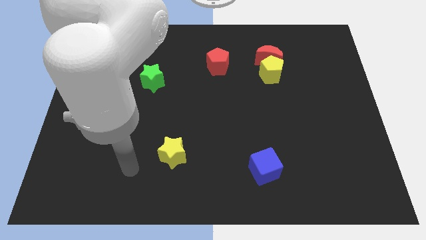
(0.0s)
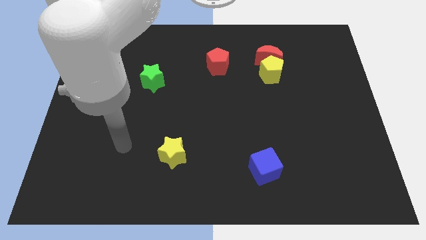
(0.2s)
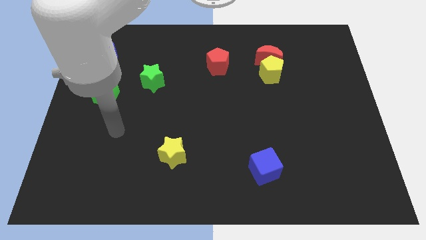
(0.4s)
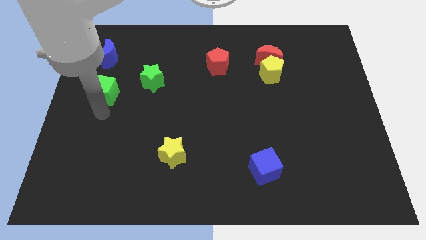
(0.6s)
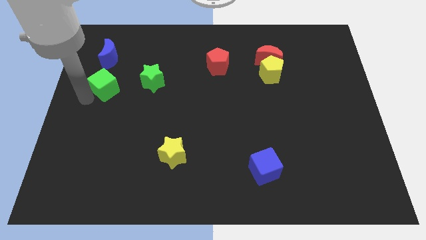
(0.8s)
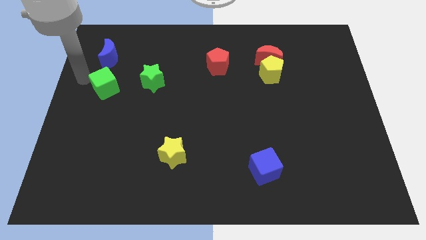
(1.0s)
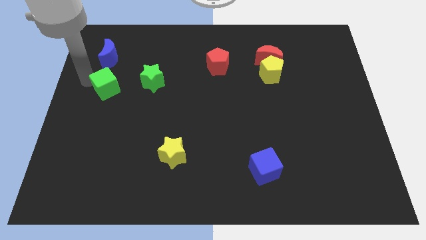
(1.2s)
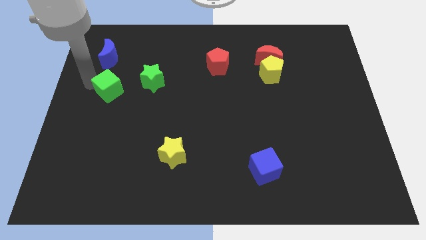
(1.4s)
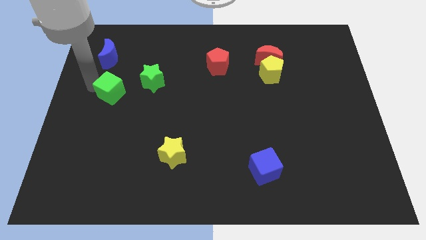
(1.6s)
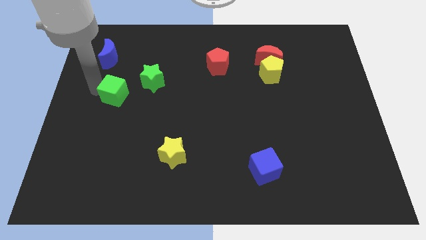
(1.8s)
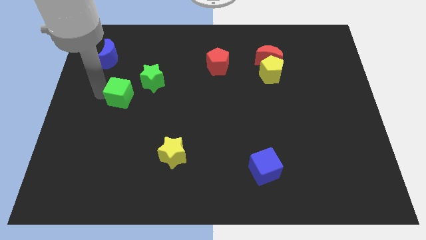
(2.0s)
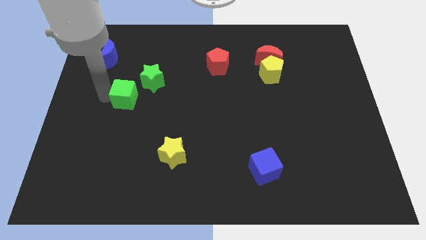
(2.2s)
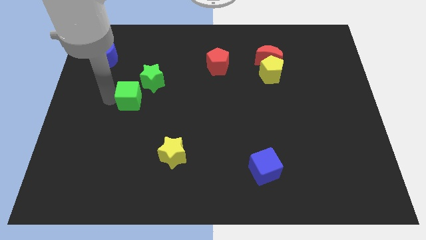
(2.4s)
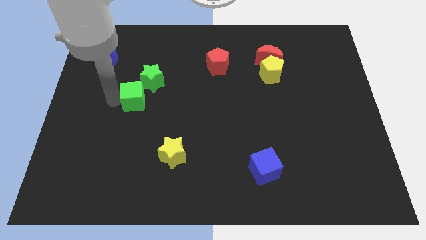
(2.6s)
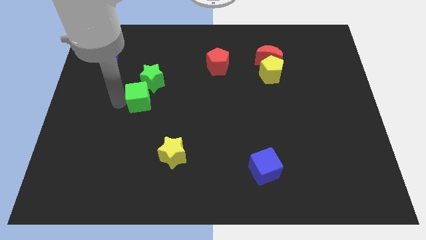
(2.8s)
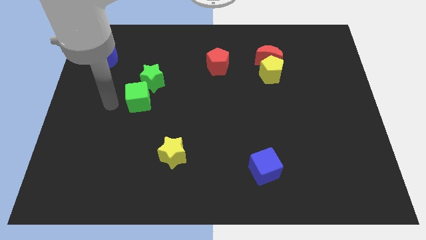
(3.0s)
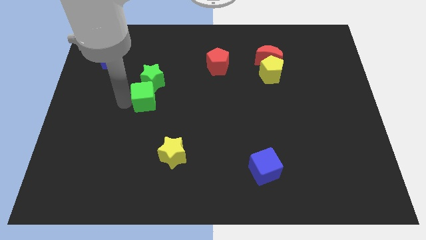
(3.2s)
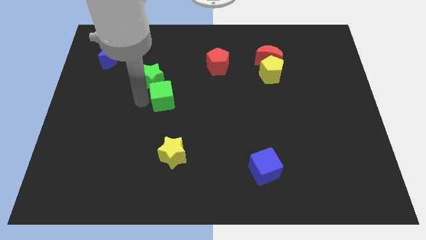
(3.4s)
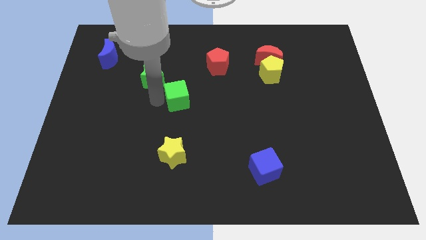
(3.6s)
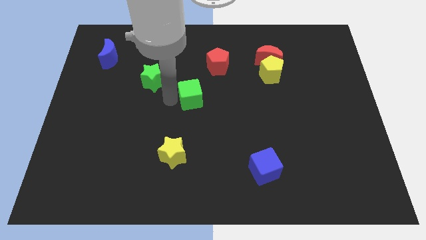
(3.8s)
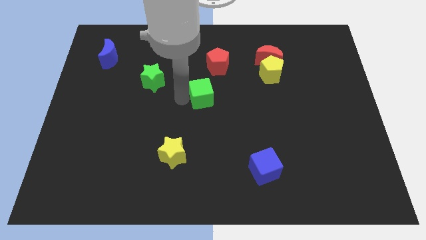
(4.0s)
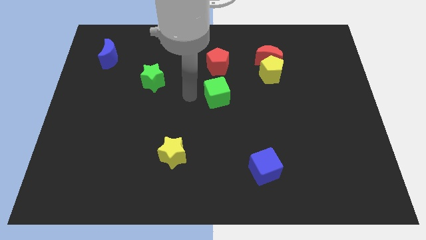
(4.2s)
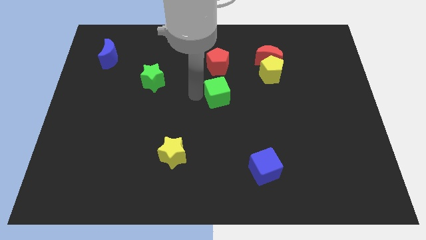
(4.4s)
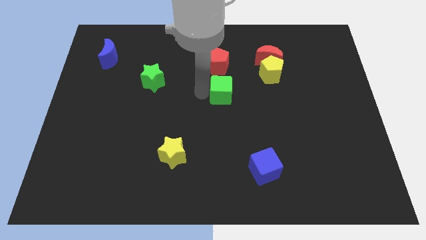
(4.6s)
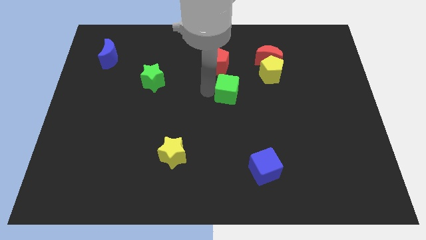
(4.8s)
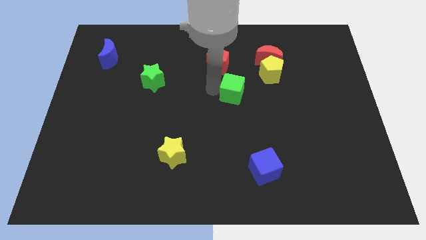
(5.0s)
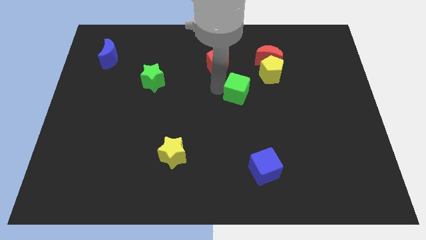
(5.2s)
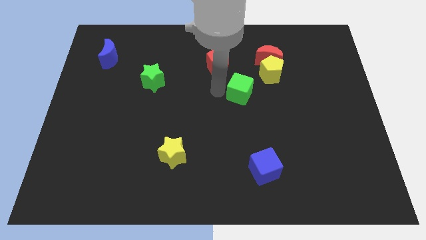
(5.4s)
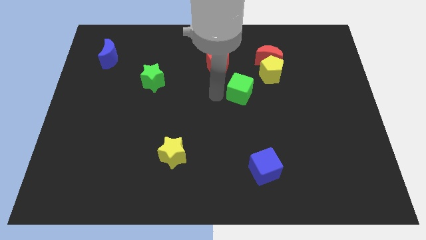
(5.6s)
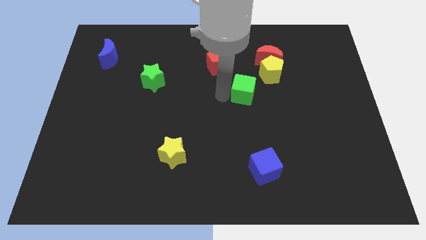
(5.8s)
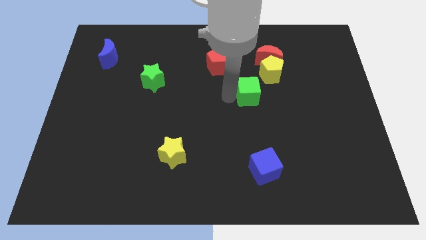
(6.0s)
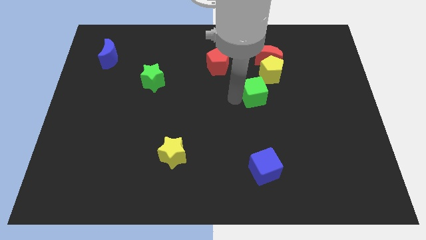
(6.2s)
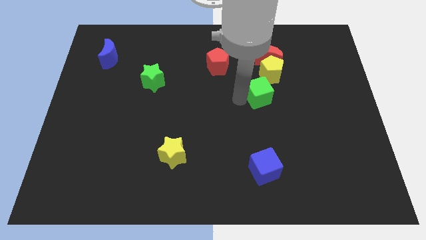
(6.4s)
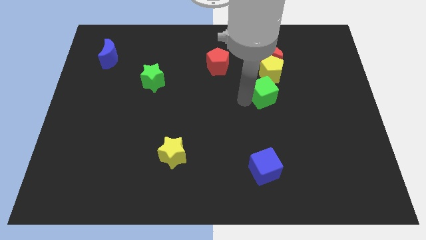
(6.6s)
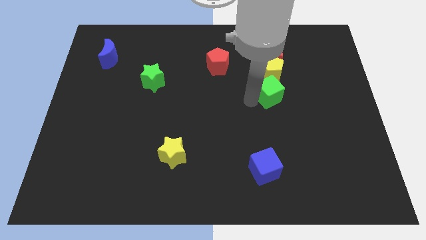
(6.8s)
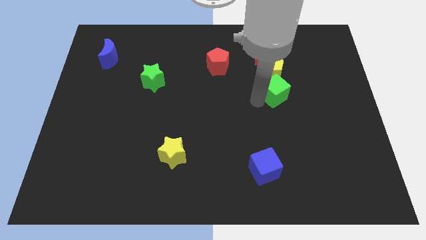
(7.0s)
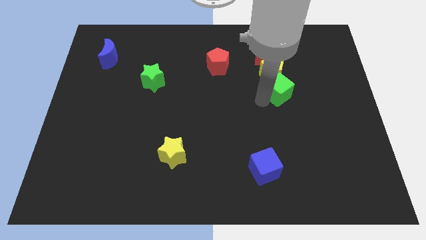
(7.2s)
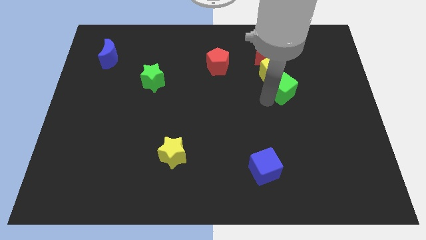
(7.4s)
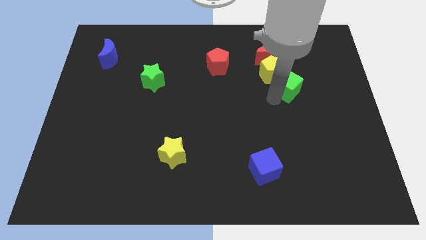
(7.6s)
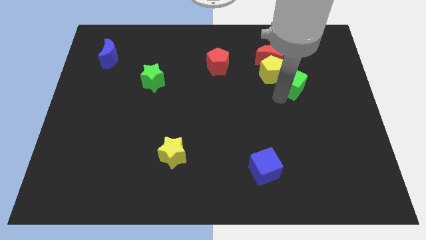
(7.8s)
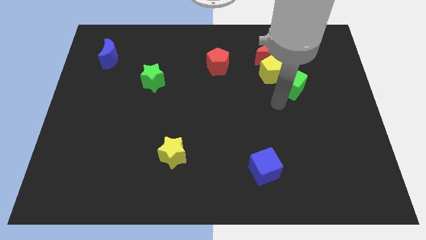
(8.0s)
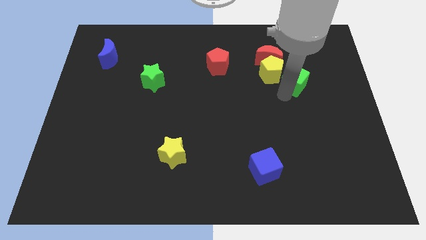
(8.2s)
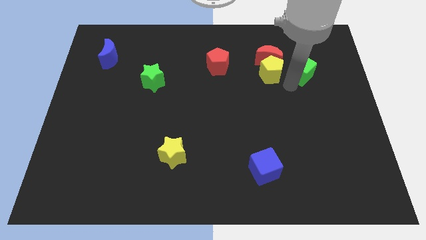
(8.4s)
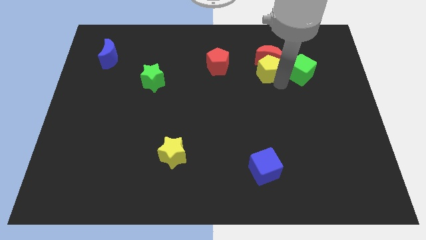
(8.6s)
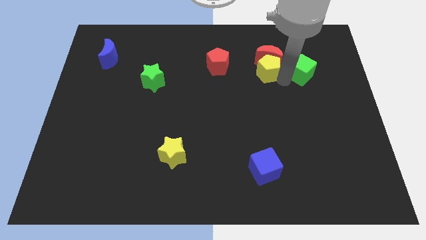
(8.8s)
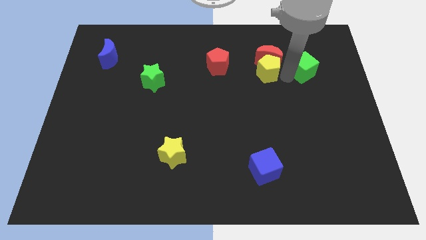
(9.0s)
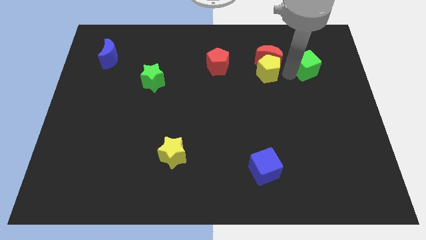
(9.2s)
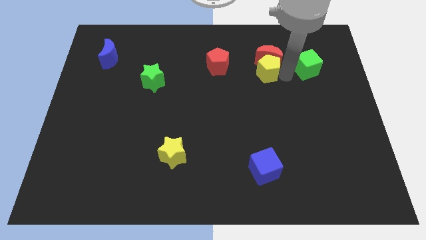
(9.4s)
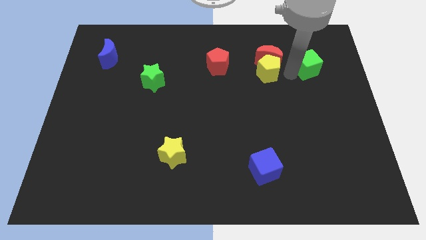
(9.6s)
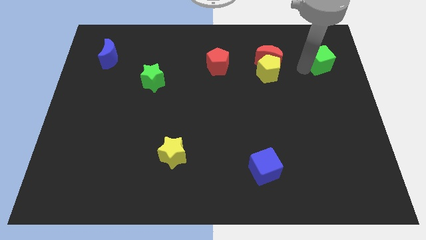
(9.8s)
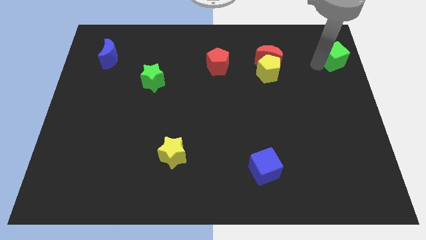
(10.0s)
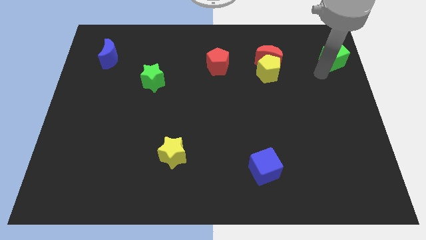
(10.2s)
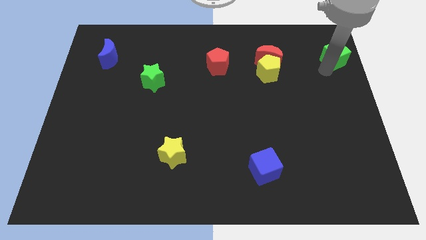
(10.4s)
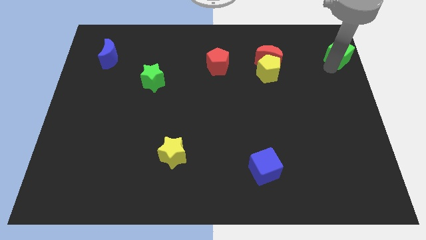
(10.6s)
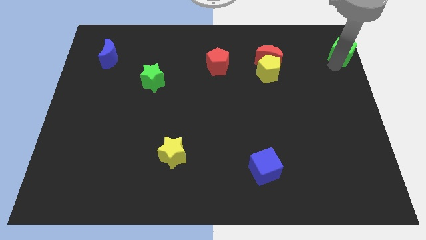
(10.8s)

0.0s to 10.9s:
put the green cube to the top right of the board

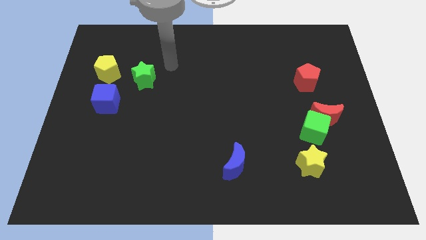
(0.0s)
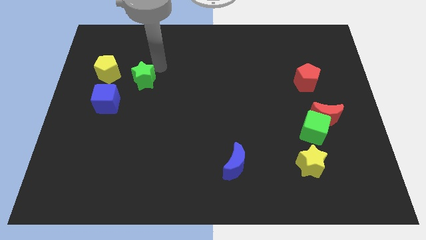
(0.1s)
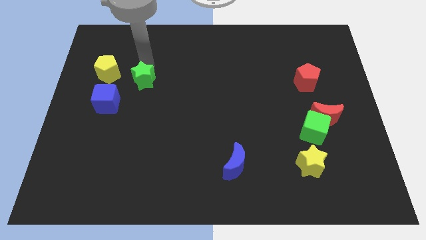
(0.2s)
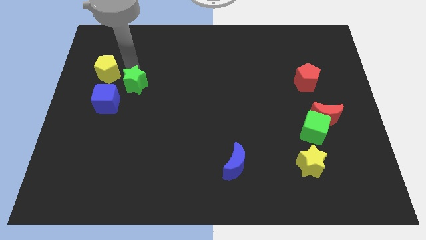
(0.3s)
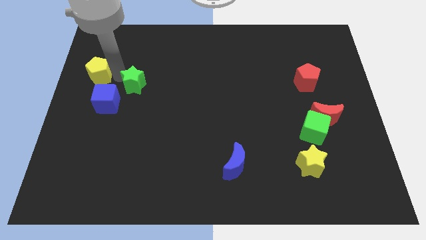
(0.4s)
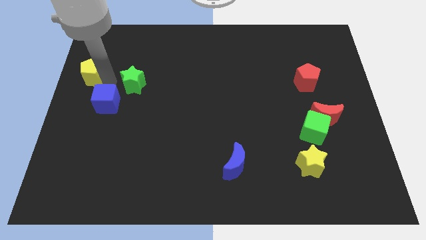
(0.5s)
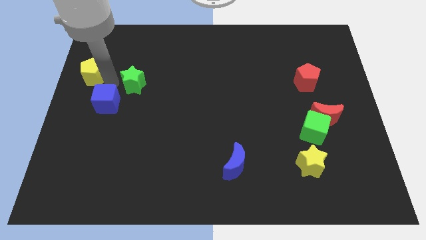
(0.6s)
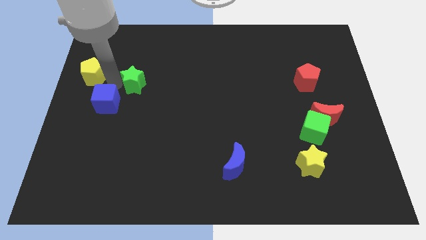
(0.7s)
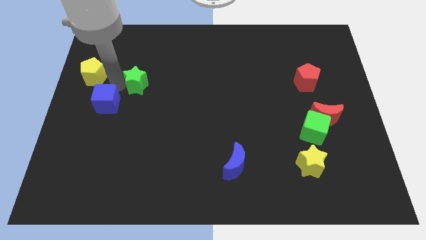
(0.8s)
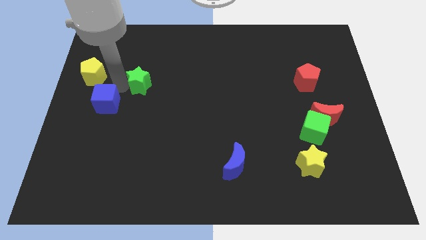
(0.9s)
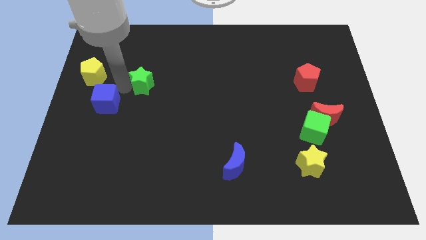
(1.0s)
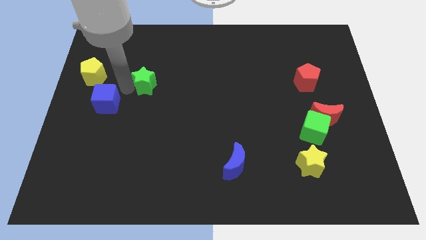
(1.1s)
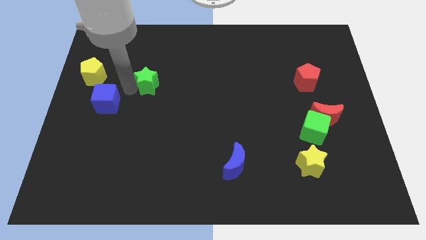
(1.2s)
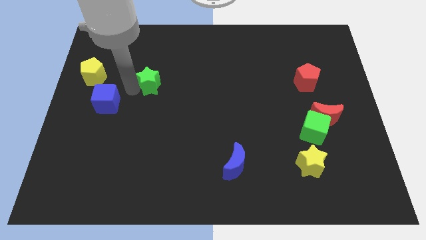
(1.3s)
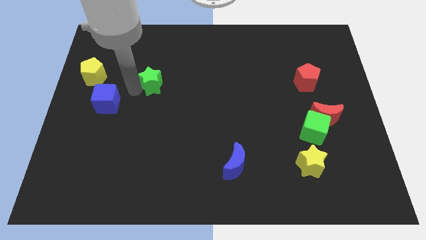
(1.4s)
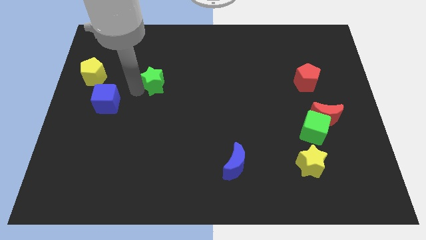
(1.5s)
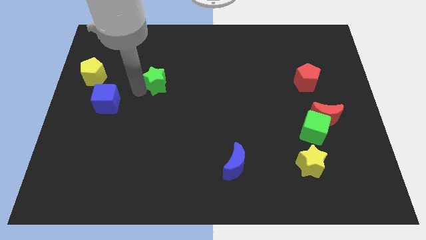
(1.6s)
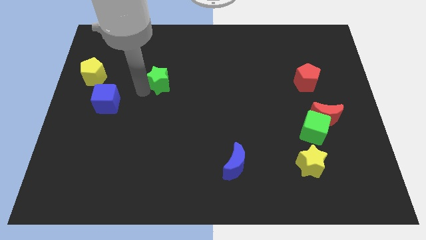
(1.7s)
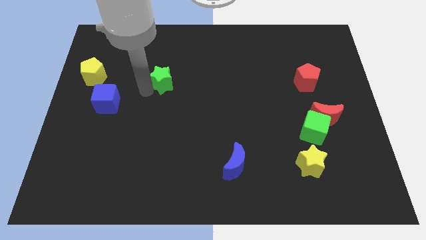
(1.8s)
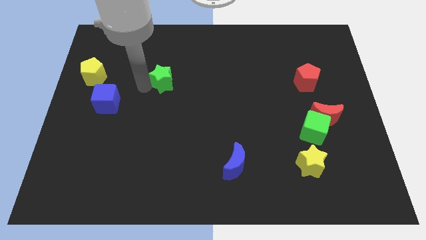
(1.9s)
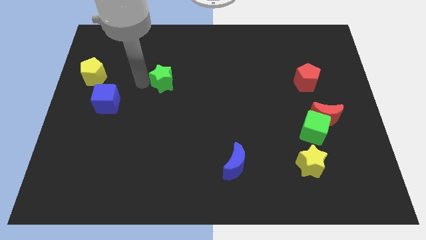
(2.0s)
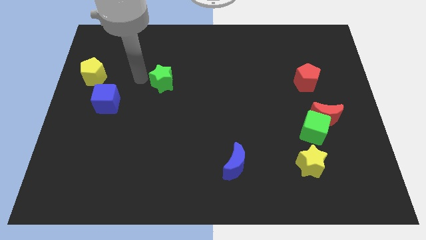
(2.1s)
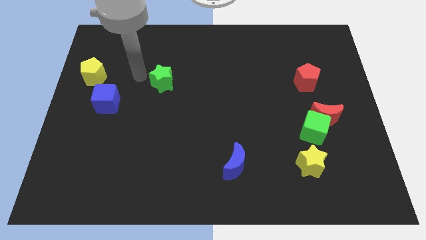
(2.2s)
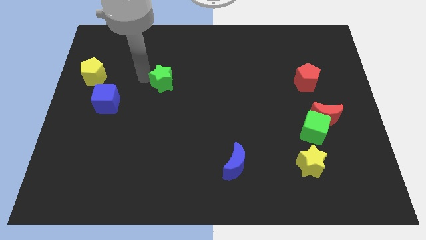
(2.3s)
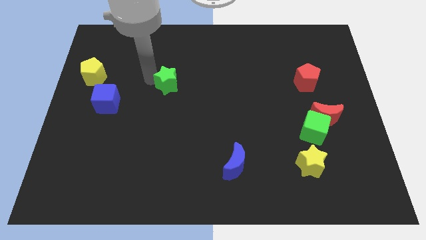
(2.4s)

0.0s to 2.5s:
push the green star to the middle
